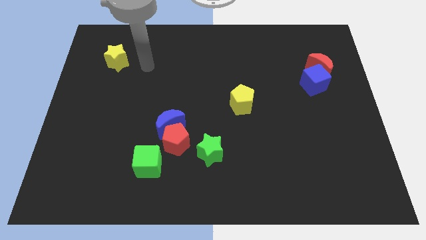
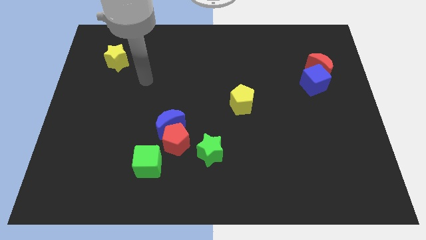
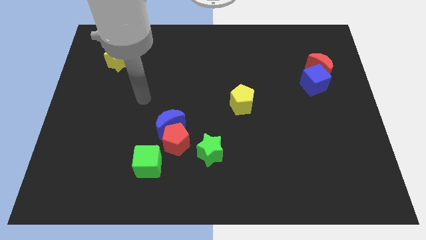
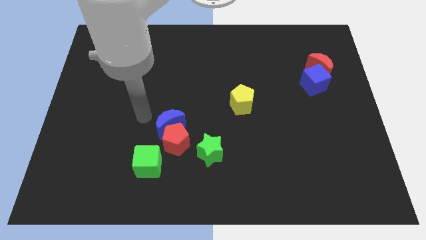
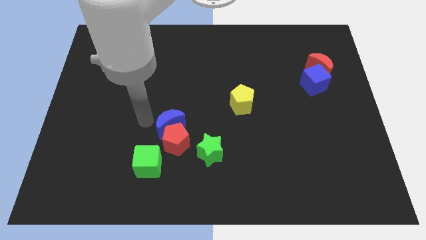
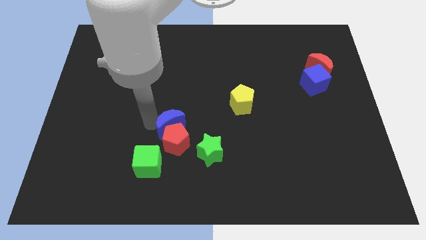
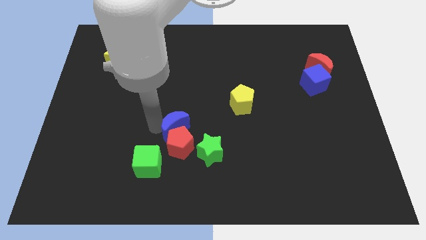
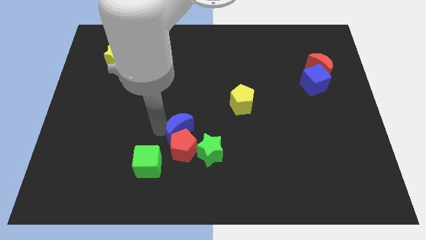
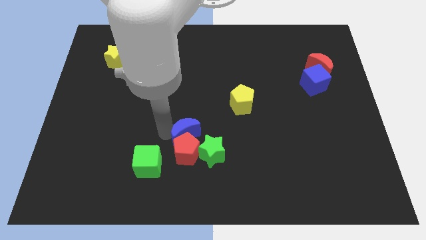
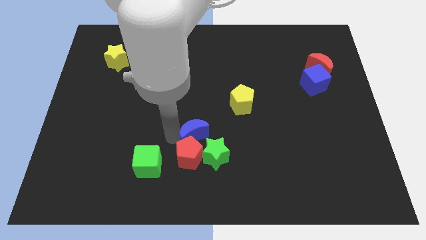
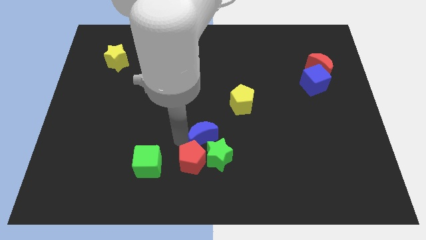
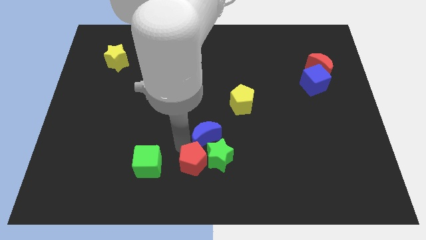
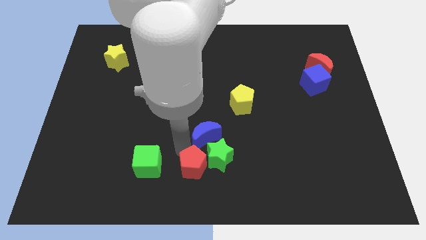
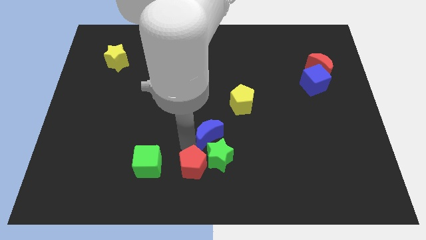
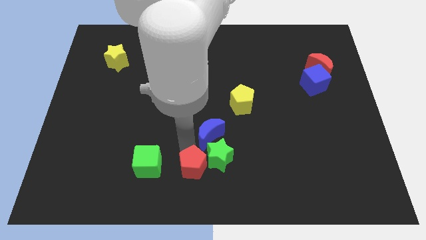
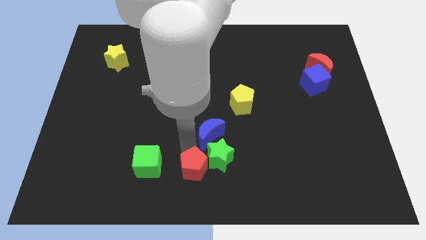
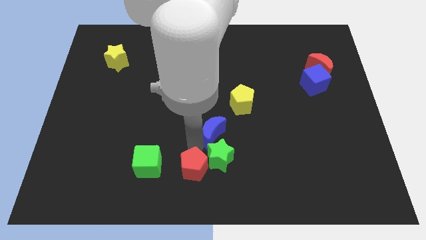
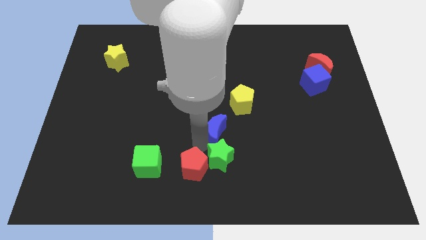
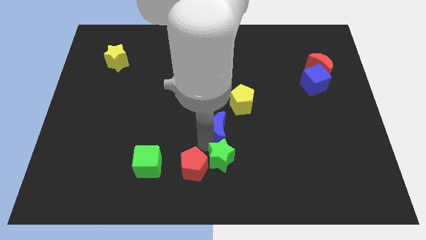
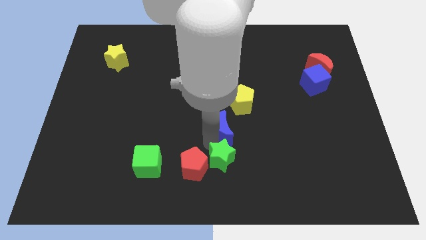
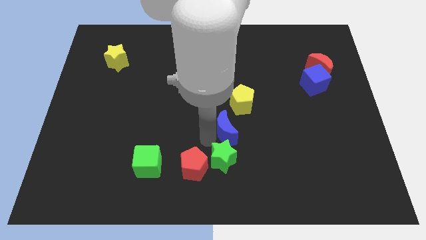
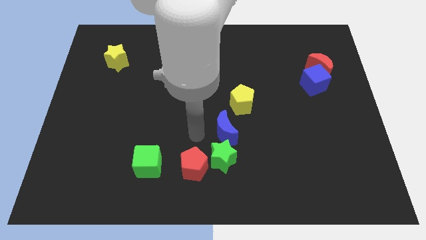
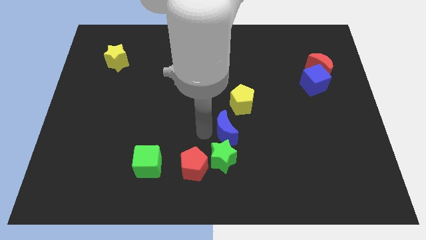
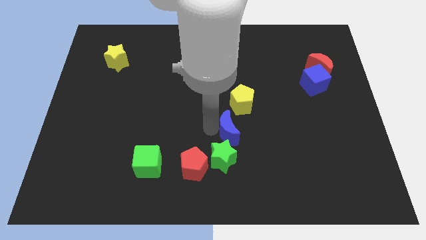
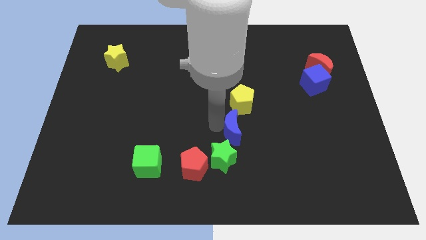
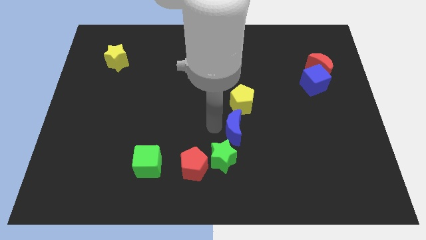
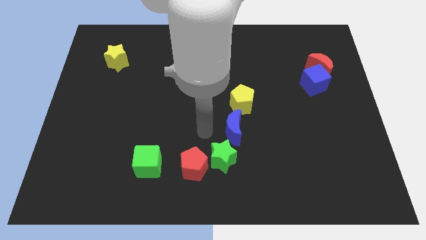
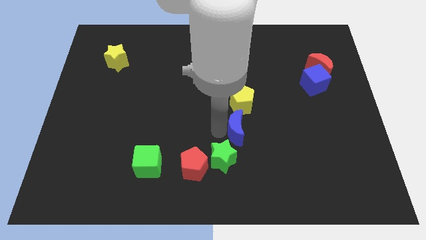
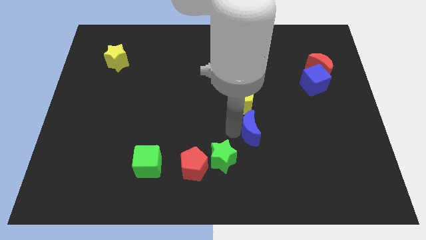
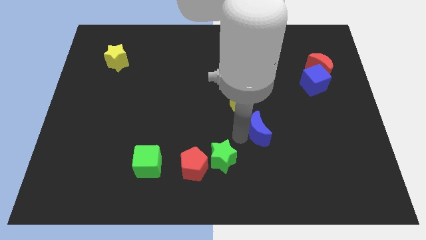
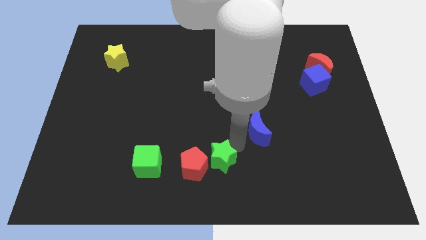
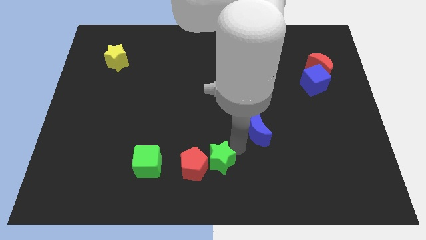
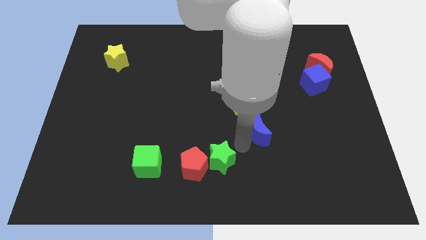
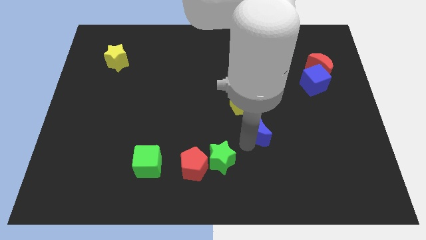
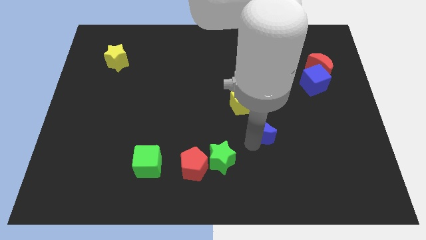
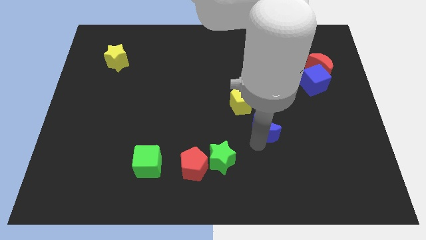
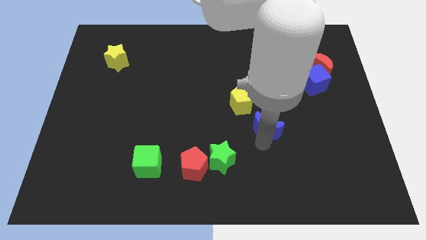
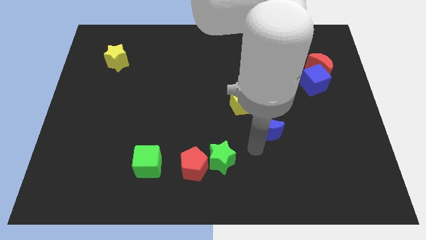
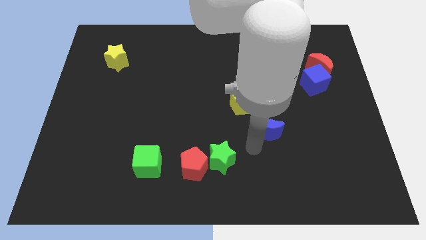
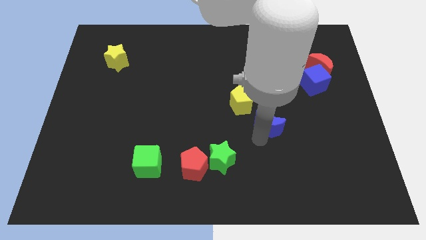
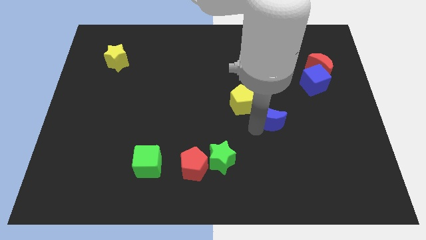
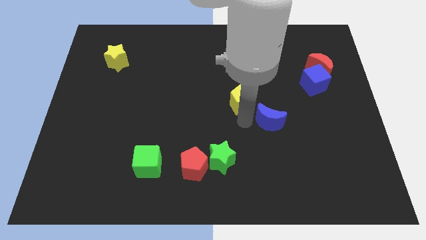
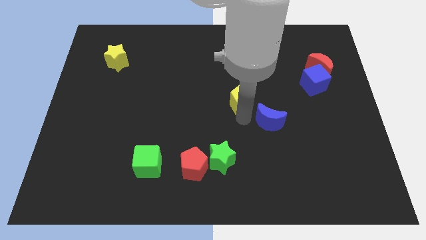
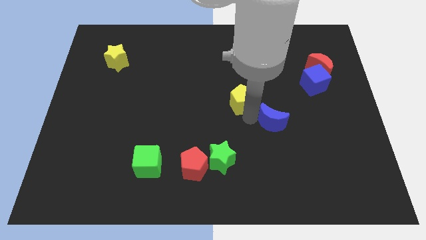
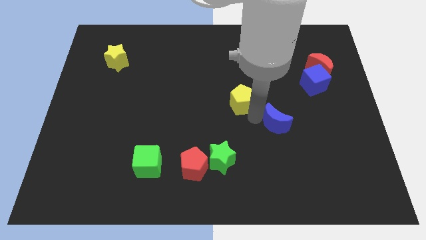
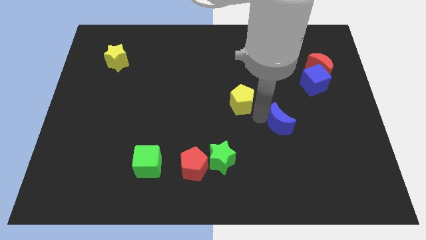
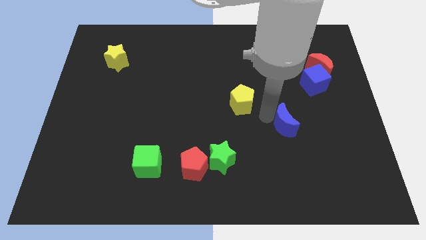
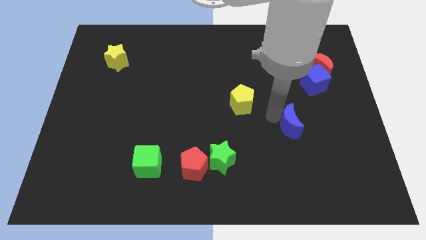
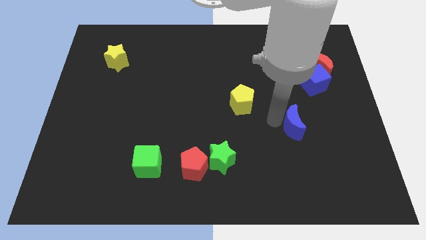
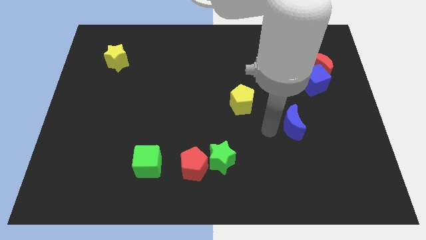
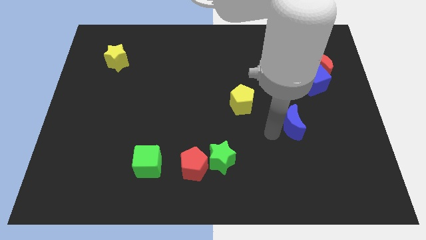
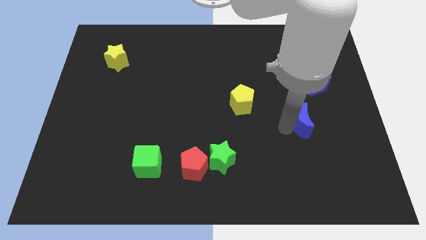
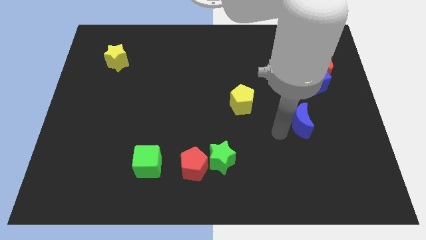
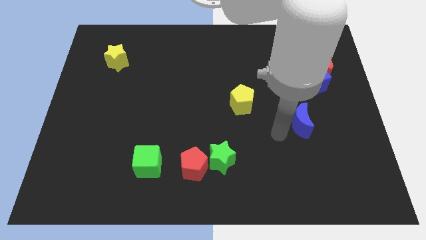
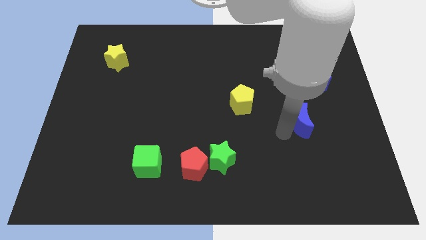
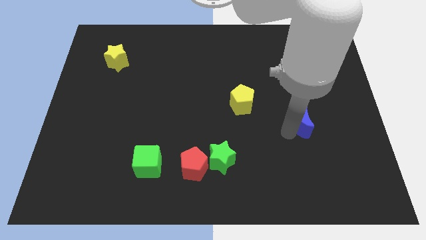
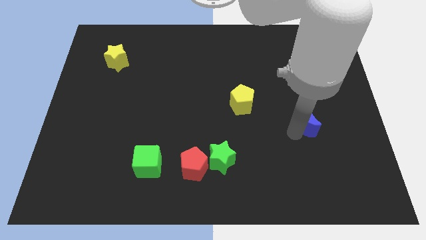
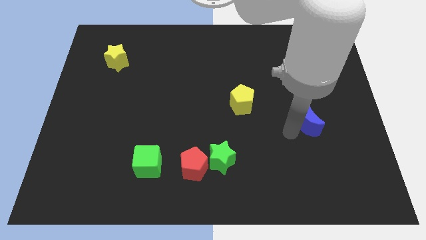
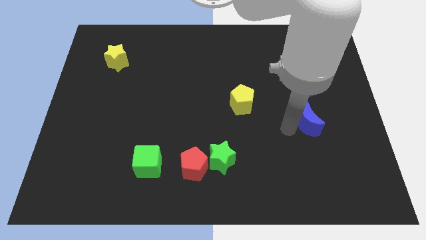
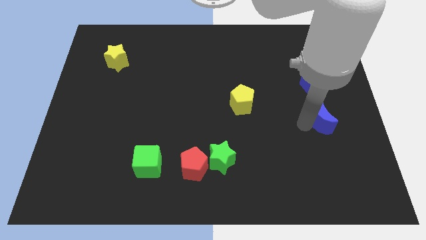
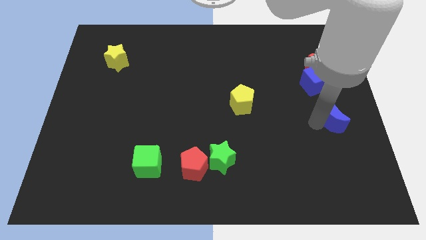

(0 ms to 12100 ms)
push the blue moon to the center right

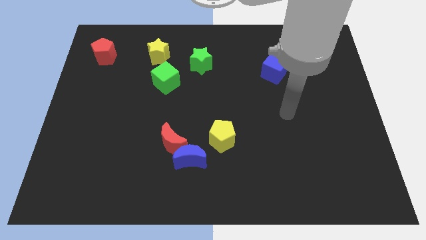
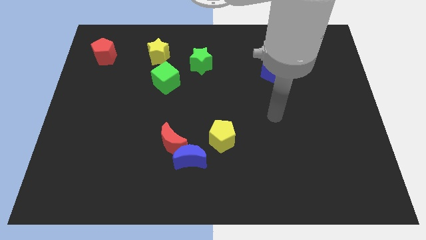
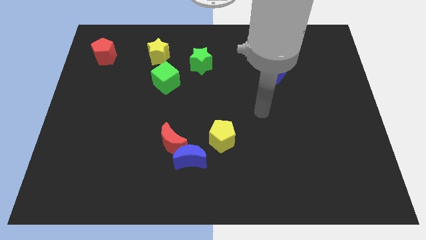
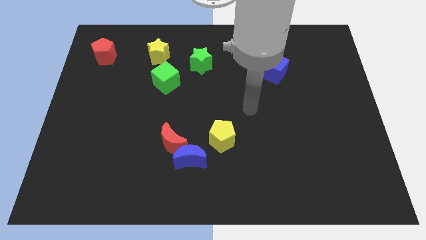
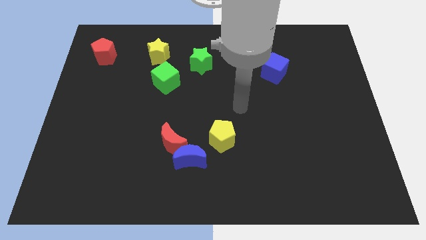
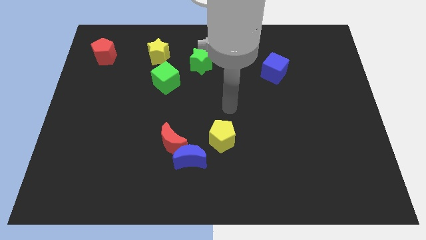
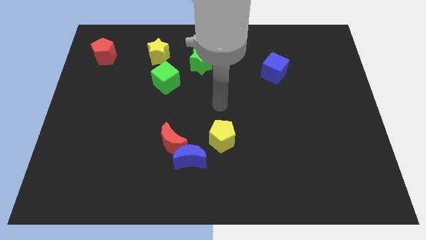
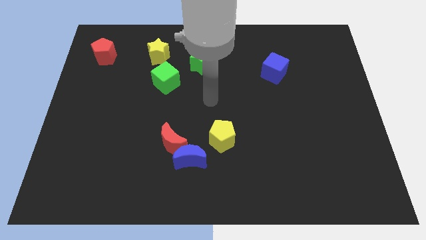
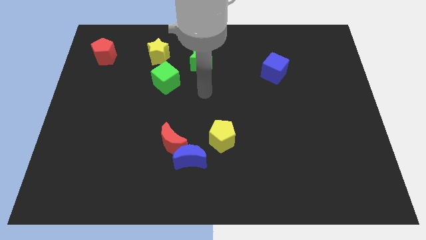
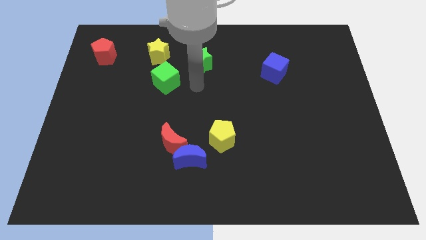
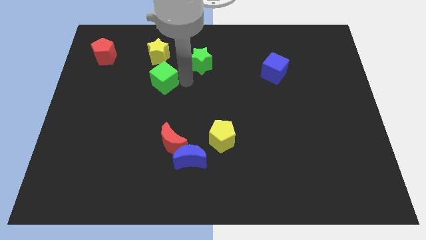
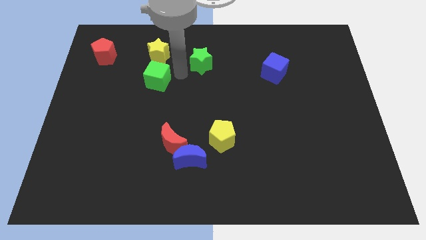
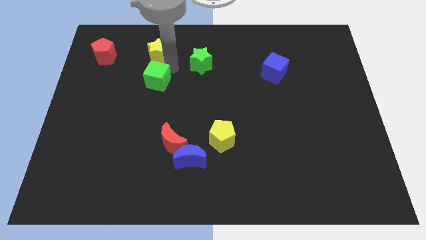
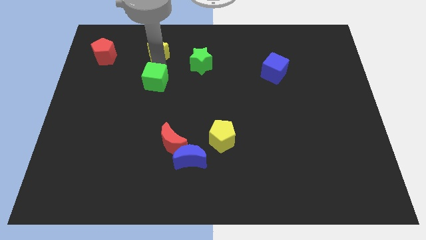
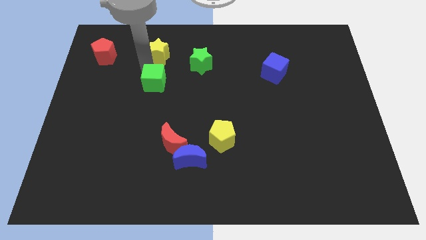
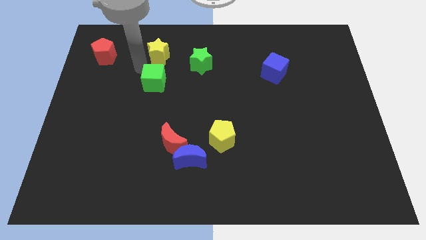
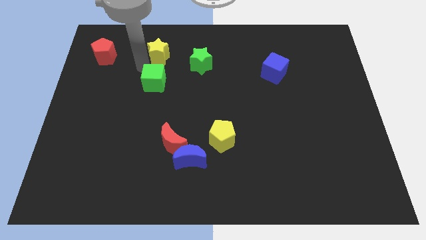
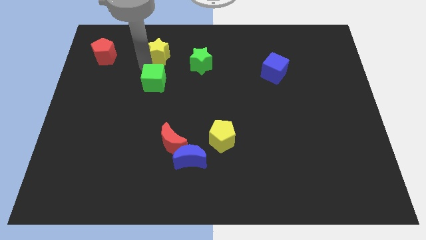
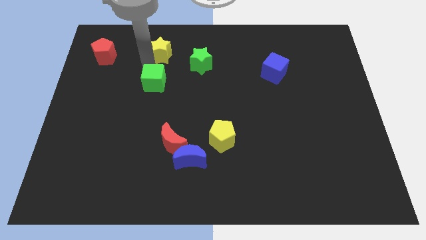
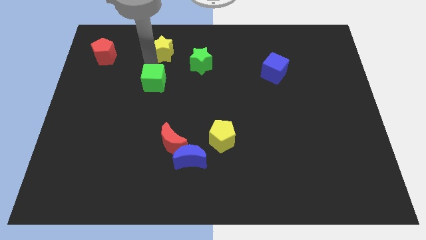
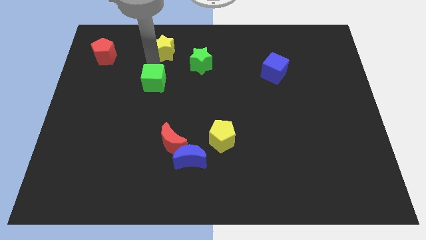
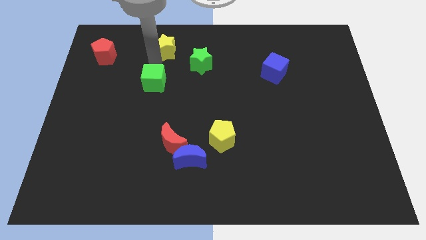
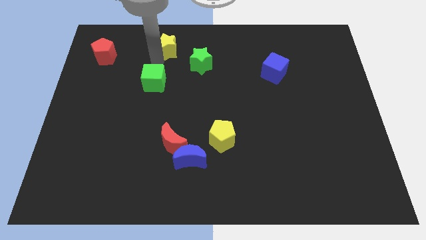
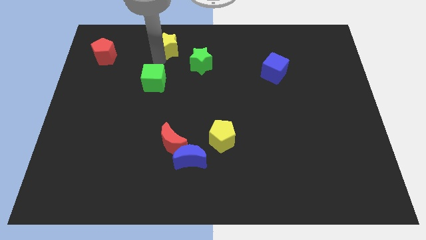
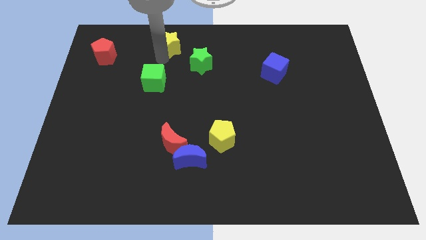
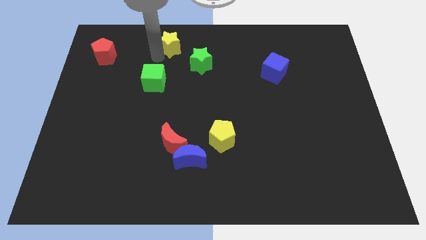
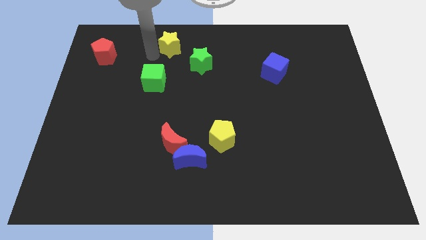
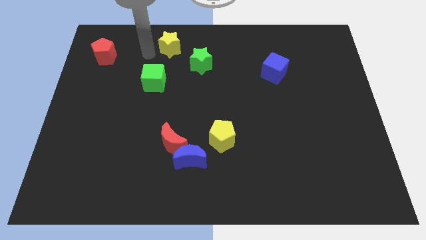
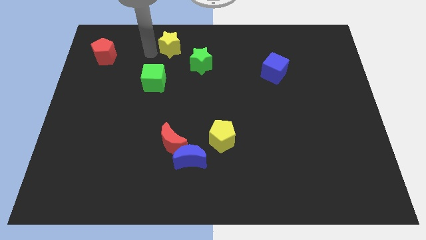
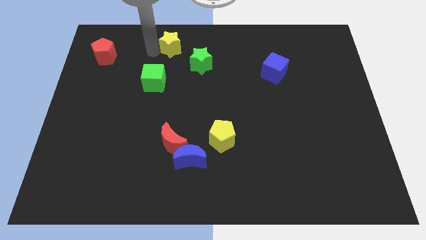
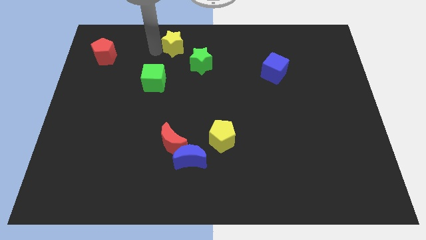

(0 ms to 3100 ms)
put the yellow star to the top side
